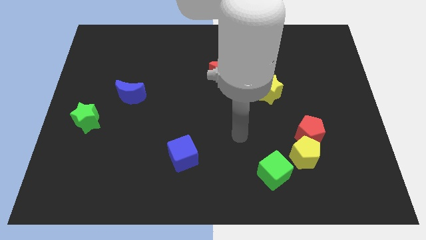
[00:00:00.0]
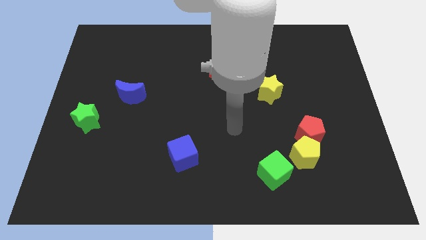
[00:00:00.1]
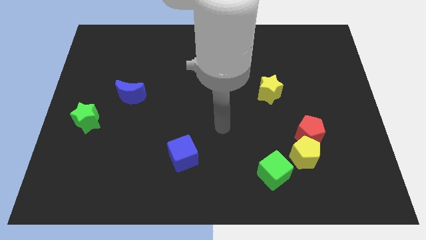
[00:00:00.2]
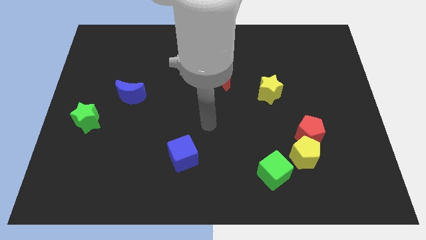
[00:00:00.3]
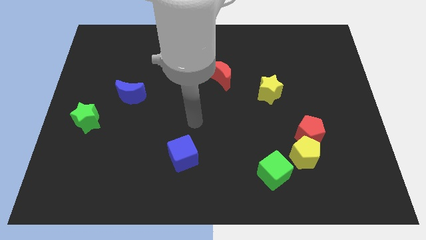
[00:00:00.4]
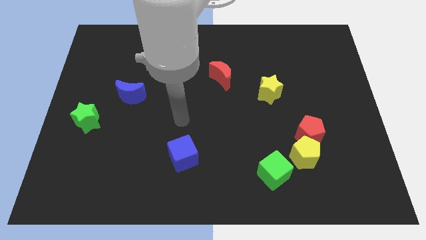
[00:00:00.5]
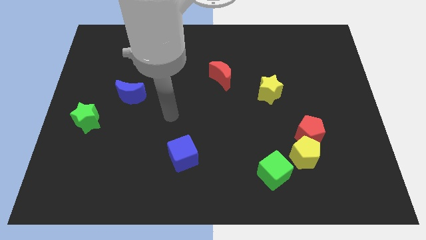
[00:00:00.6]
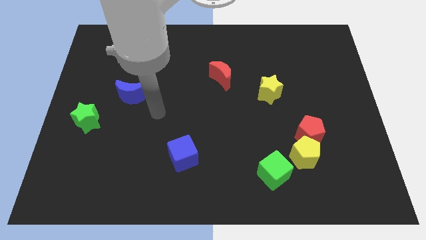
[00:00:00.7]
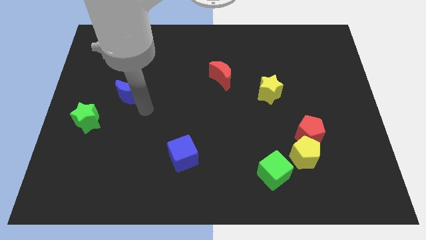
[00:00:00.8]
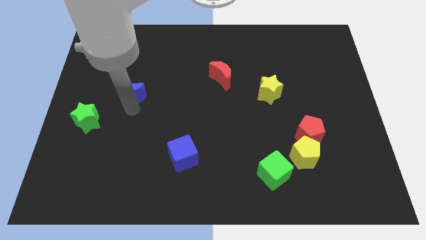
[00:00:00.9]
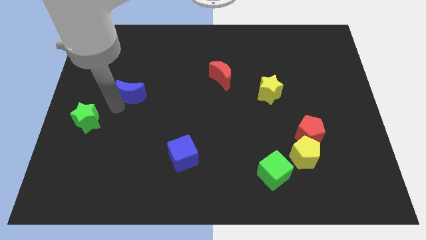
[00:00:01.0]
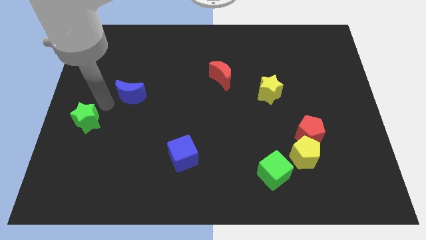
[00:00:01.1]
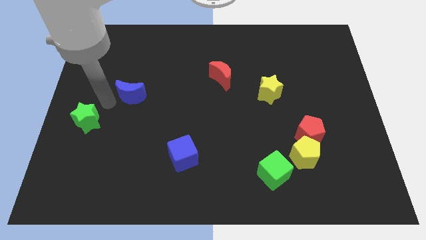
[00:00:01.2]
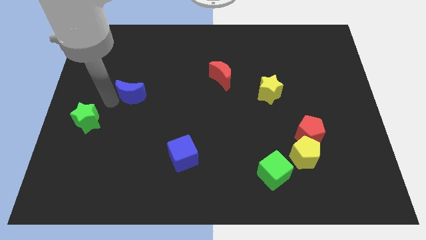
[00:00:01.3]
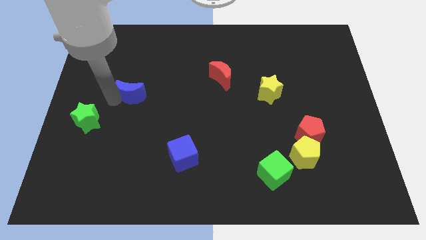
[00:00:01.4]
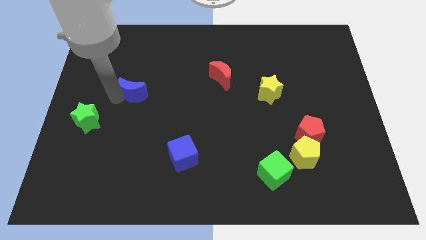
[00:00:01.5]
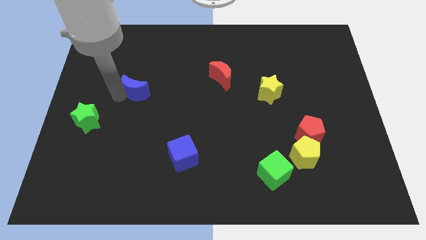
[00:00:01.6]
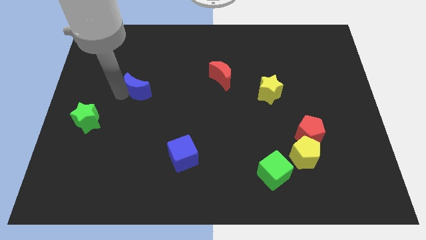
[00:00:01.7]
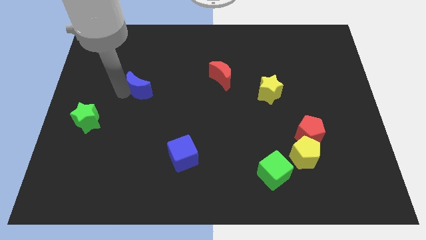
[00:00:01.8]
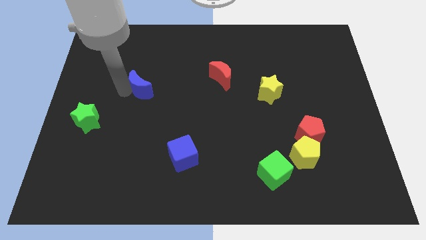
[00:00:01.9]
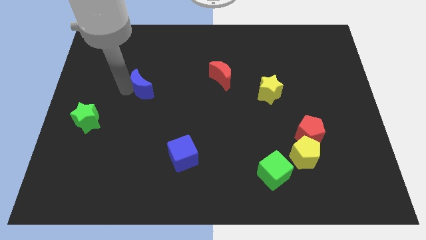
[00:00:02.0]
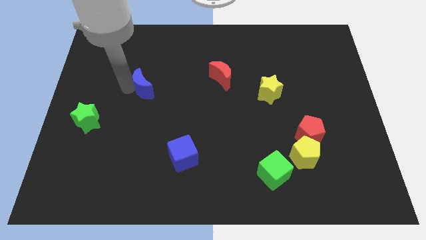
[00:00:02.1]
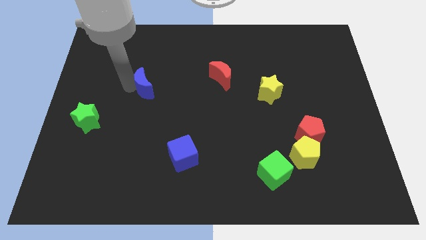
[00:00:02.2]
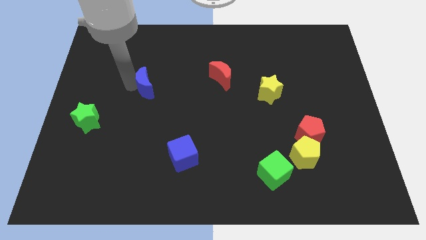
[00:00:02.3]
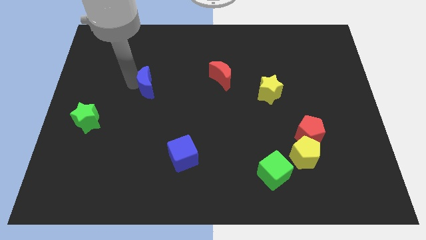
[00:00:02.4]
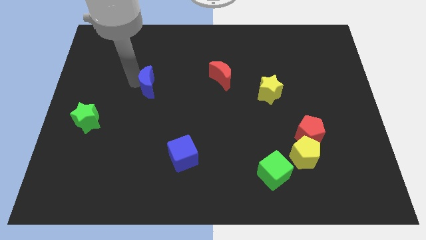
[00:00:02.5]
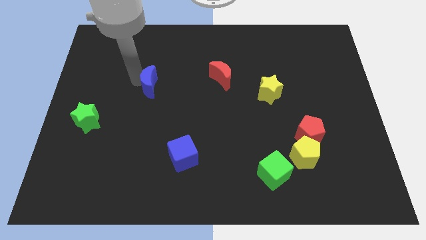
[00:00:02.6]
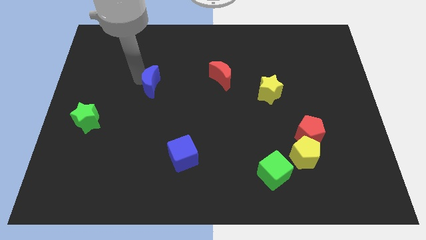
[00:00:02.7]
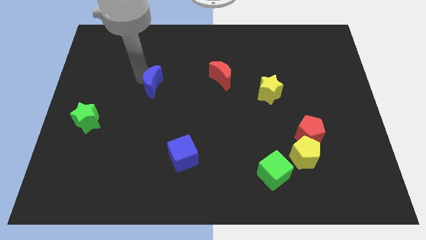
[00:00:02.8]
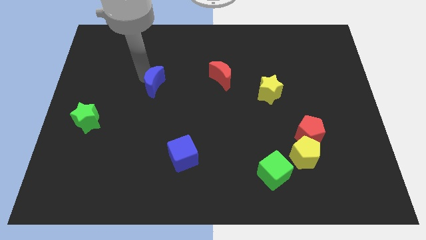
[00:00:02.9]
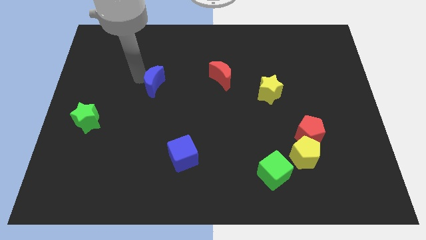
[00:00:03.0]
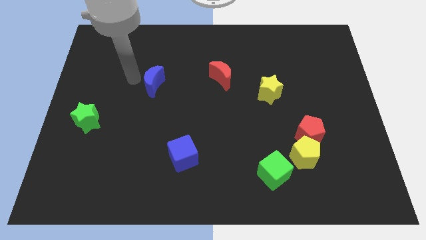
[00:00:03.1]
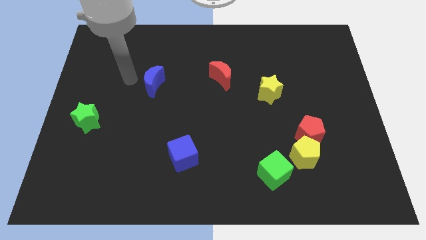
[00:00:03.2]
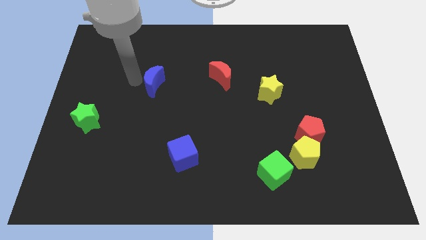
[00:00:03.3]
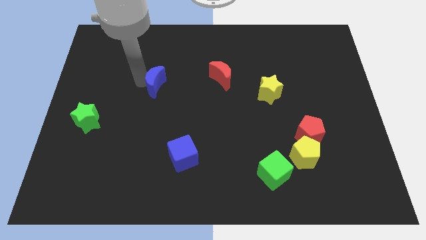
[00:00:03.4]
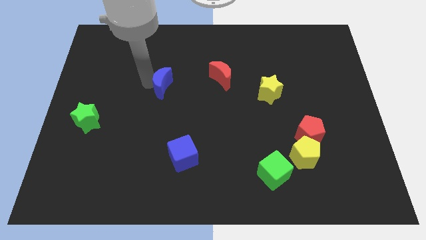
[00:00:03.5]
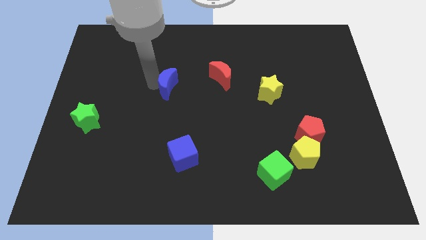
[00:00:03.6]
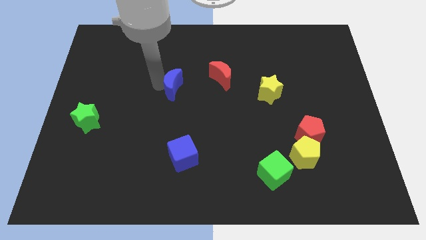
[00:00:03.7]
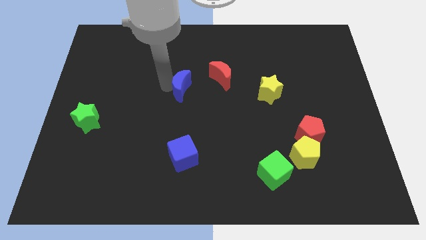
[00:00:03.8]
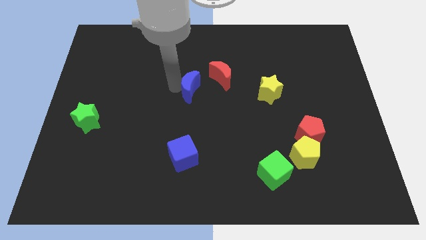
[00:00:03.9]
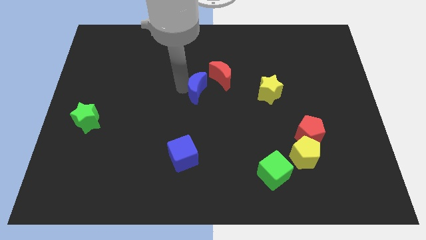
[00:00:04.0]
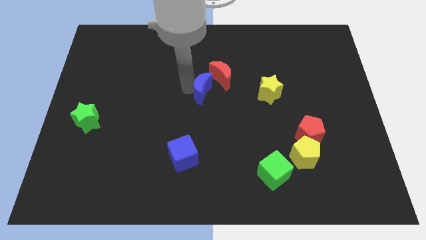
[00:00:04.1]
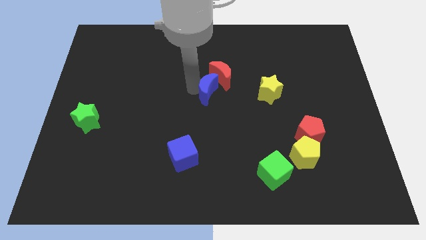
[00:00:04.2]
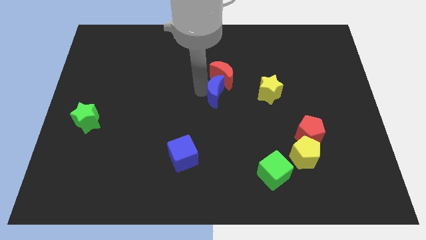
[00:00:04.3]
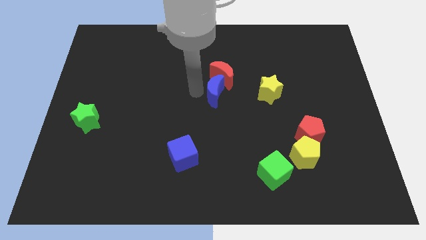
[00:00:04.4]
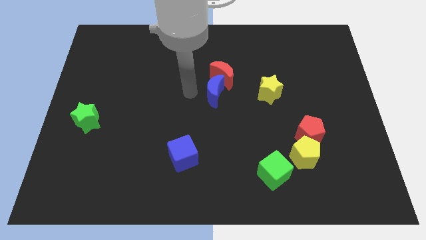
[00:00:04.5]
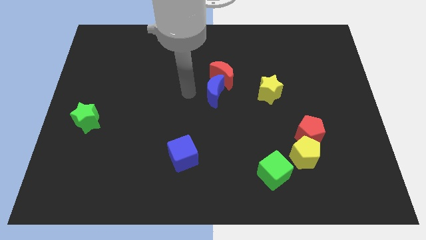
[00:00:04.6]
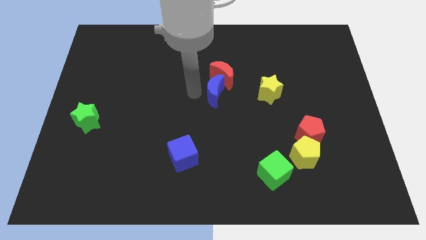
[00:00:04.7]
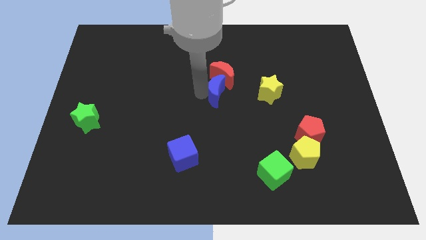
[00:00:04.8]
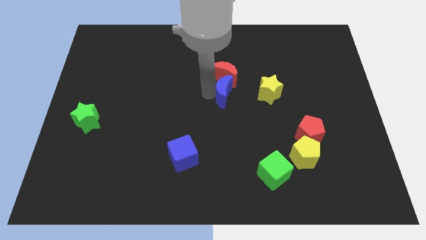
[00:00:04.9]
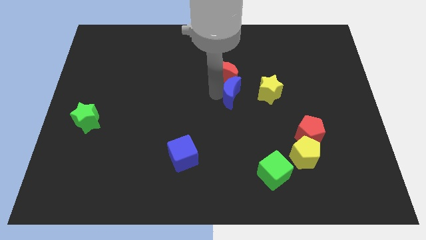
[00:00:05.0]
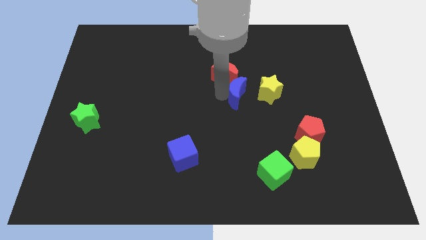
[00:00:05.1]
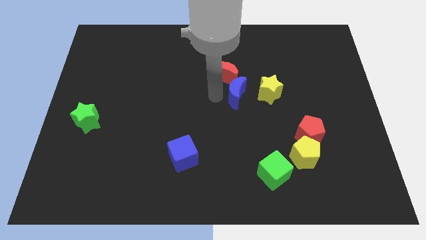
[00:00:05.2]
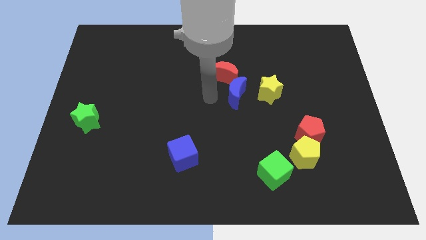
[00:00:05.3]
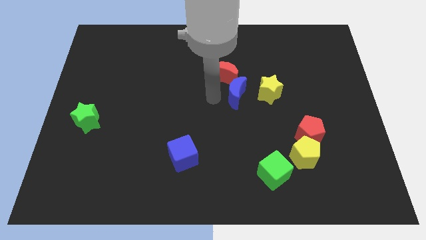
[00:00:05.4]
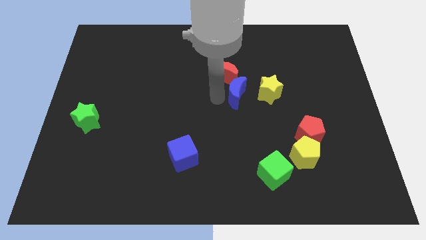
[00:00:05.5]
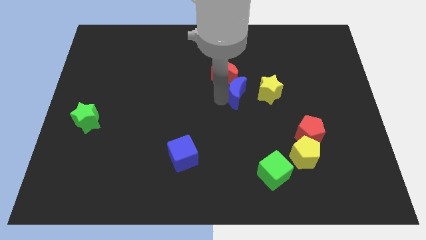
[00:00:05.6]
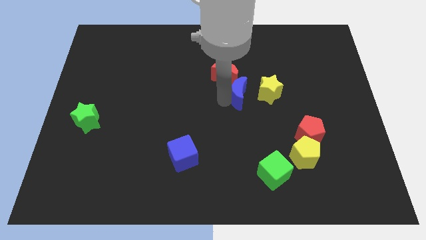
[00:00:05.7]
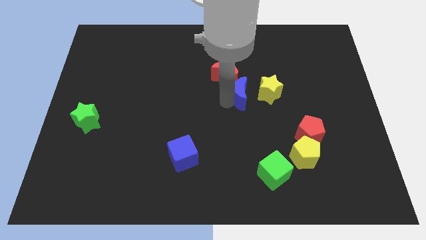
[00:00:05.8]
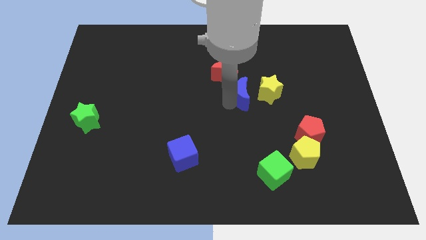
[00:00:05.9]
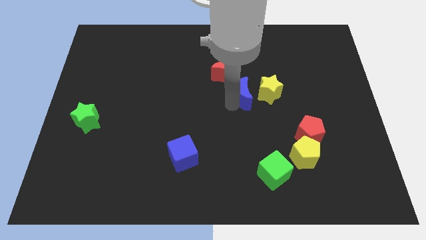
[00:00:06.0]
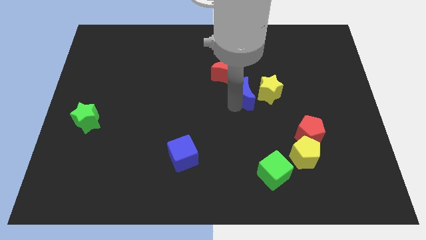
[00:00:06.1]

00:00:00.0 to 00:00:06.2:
slide the blue moon next to the yellow star

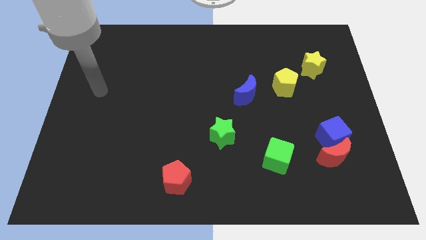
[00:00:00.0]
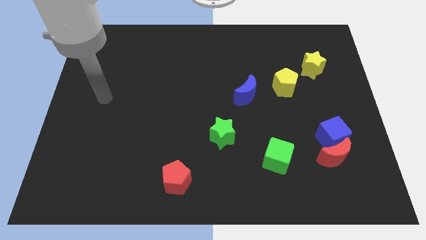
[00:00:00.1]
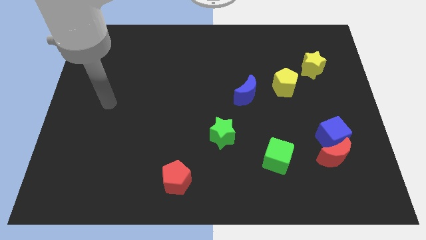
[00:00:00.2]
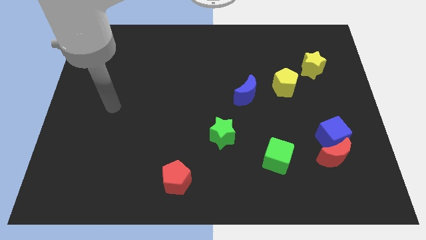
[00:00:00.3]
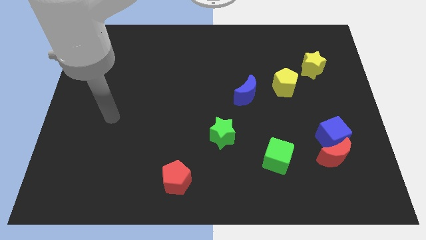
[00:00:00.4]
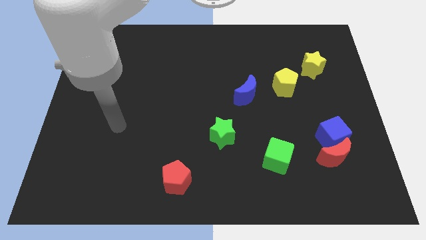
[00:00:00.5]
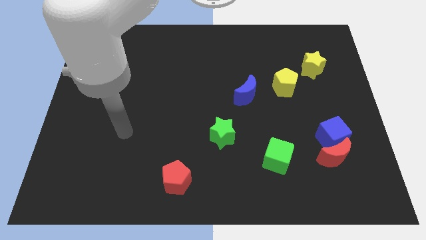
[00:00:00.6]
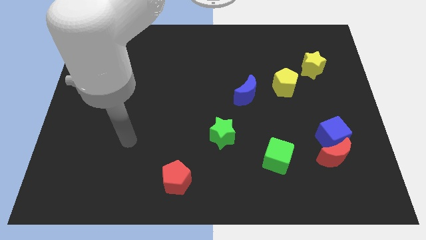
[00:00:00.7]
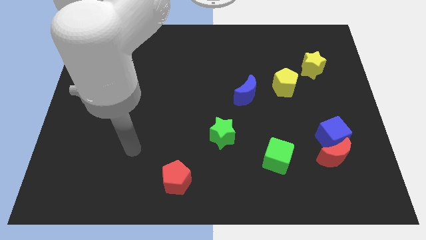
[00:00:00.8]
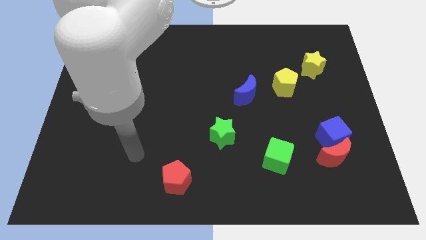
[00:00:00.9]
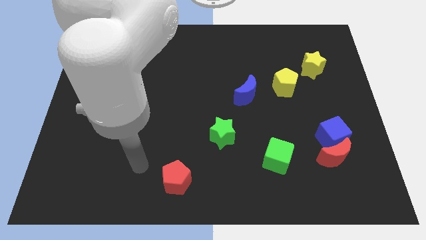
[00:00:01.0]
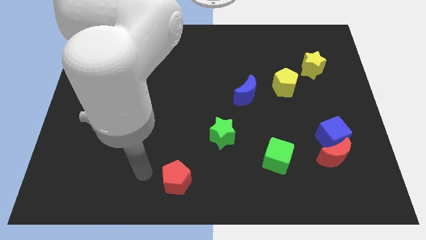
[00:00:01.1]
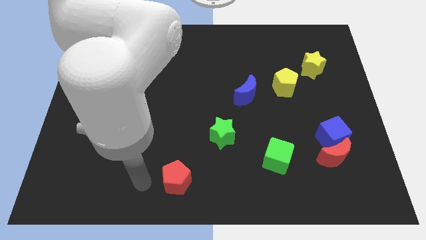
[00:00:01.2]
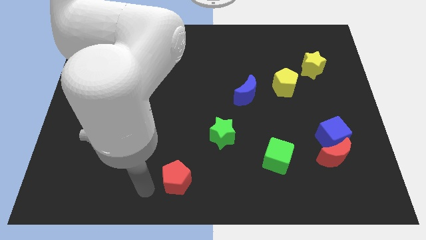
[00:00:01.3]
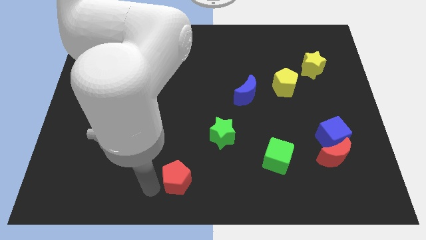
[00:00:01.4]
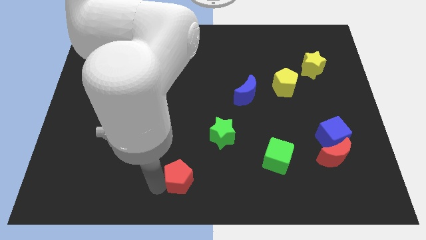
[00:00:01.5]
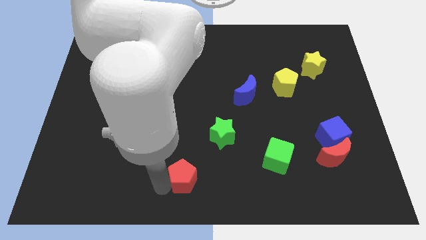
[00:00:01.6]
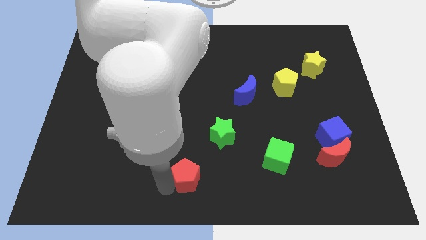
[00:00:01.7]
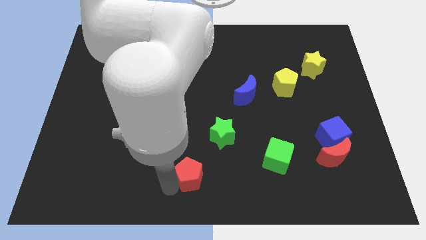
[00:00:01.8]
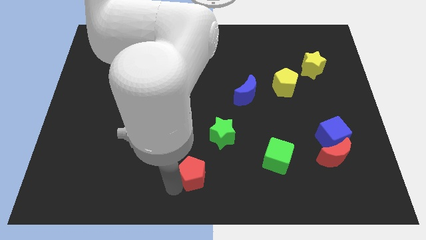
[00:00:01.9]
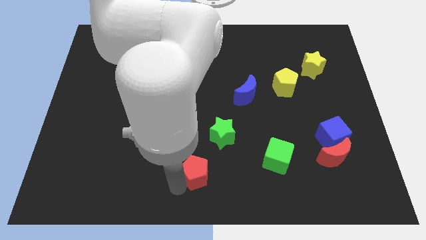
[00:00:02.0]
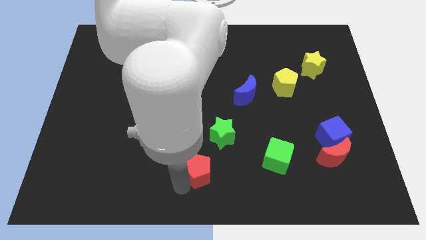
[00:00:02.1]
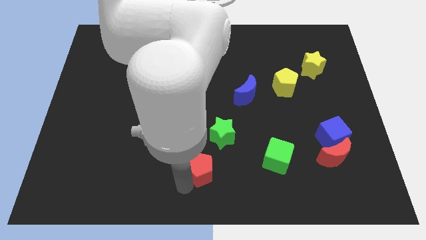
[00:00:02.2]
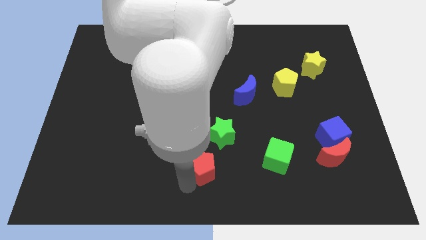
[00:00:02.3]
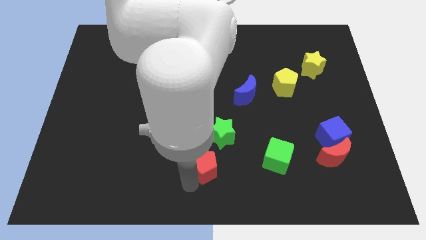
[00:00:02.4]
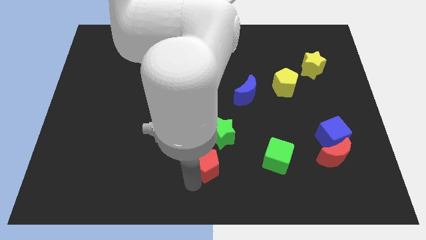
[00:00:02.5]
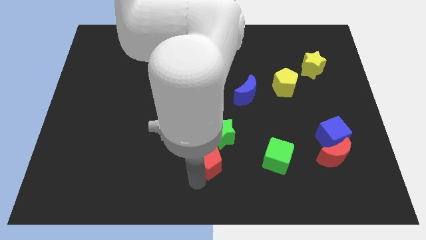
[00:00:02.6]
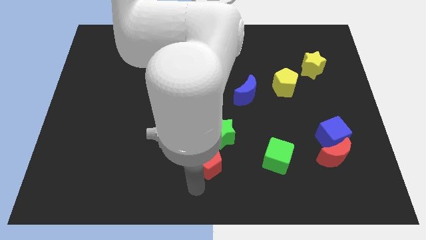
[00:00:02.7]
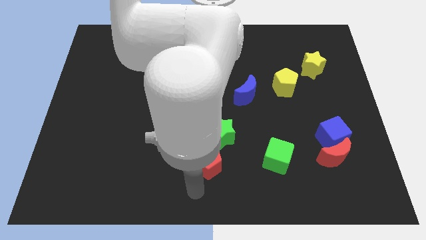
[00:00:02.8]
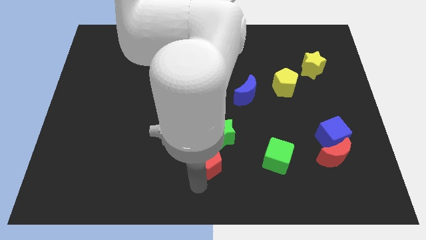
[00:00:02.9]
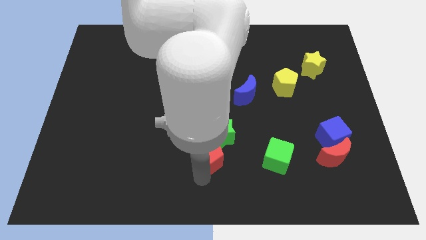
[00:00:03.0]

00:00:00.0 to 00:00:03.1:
slide the red pentagon towards the green star
